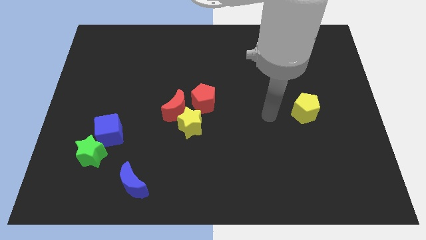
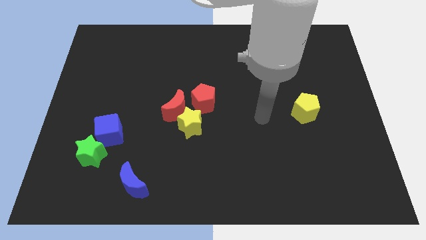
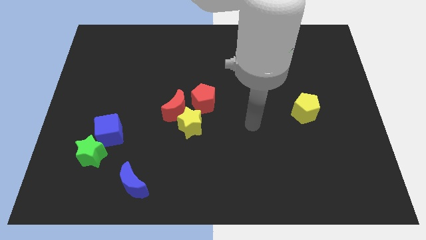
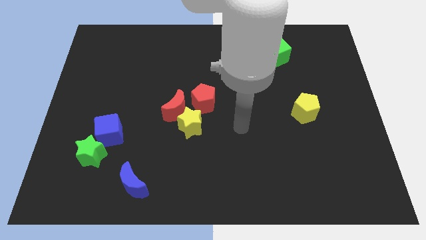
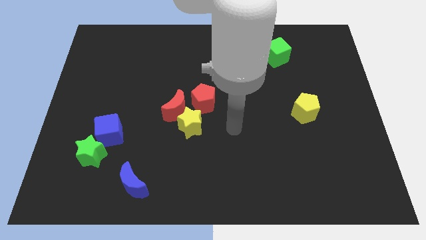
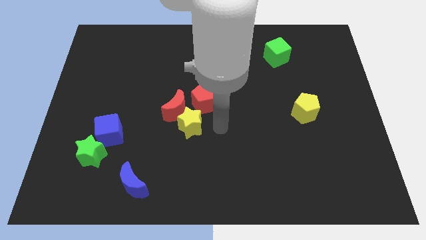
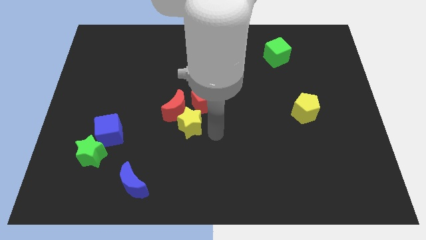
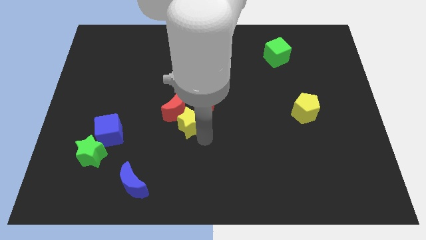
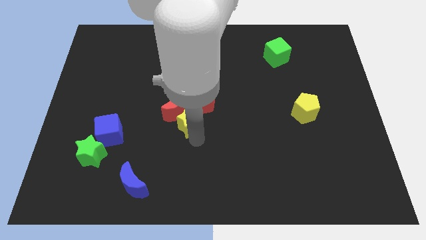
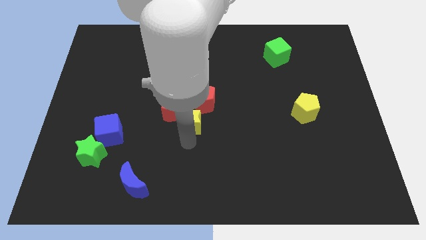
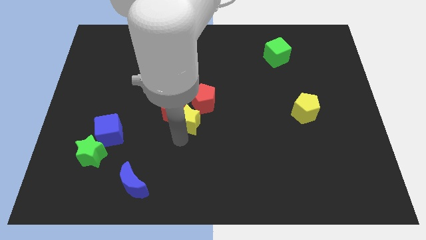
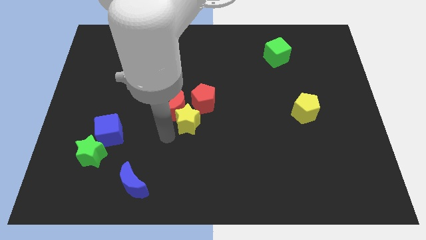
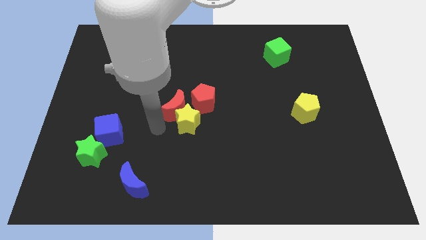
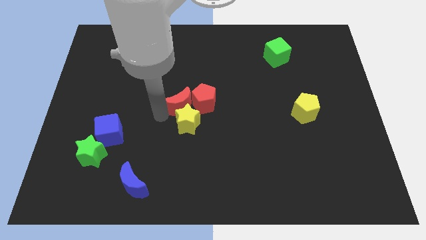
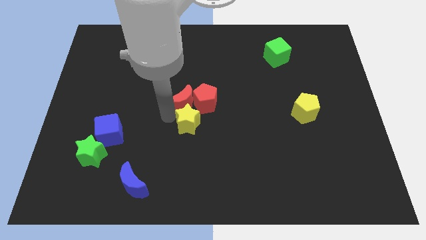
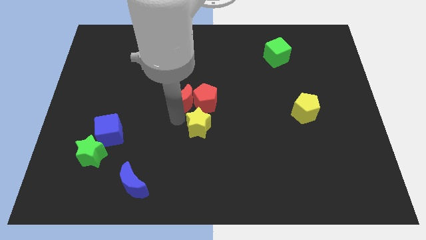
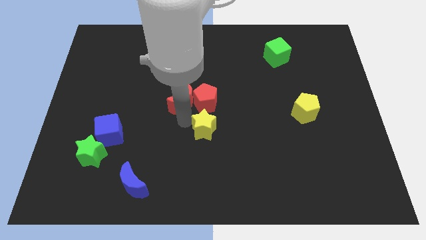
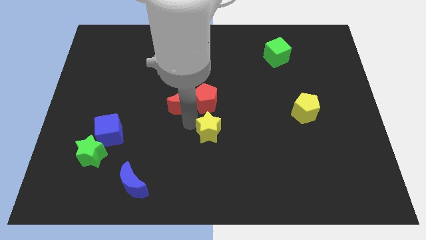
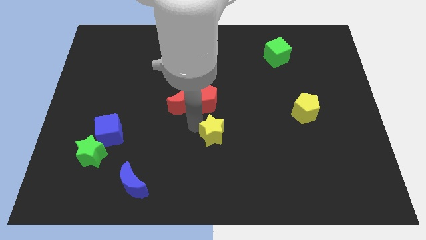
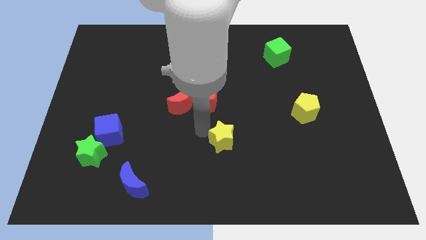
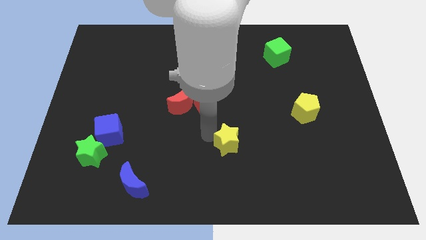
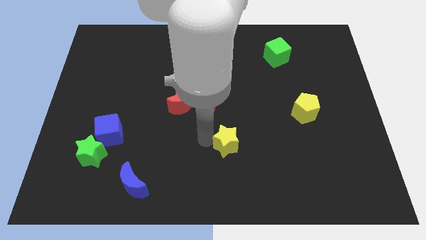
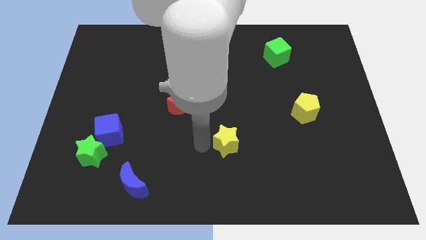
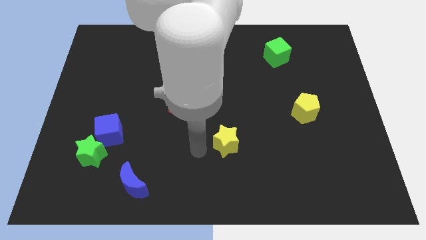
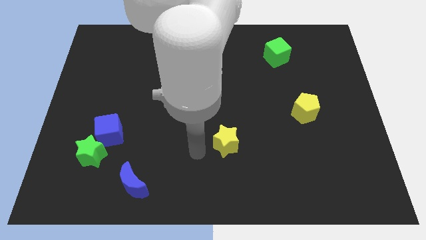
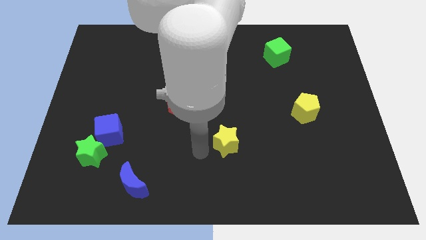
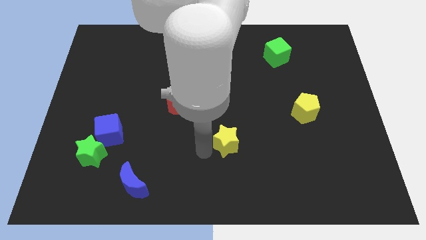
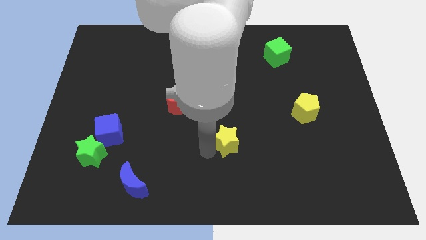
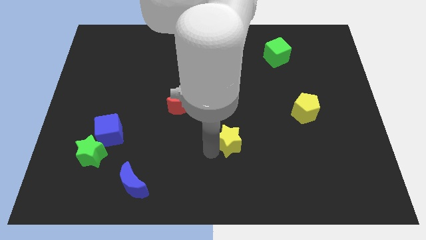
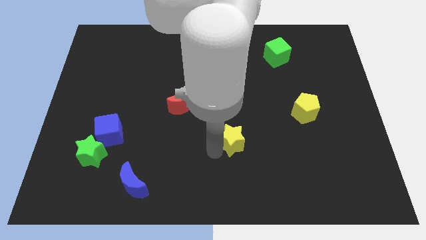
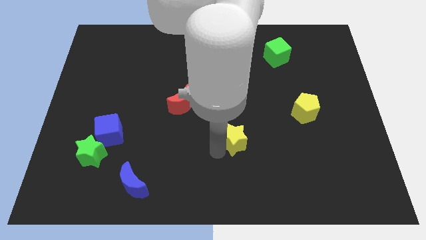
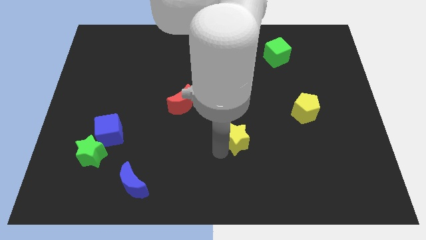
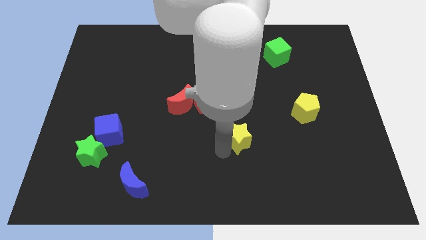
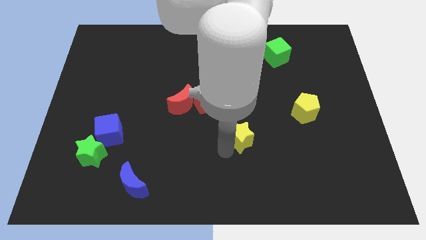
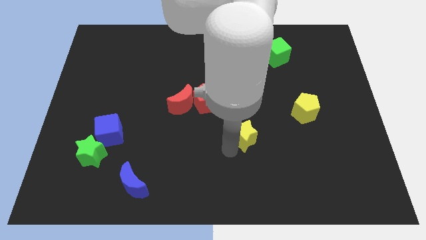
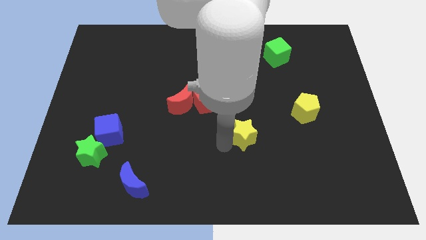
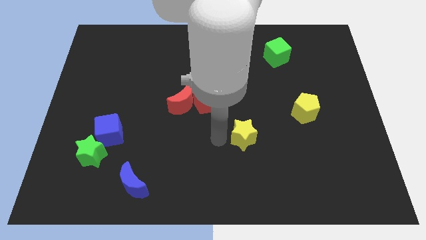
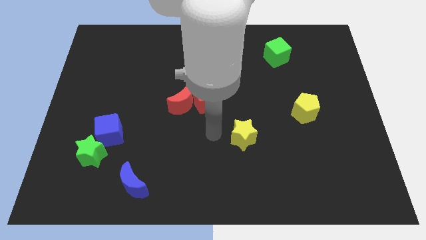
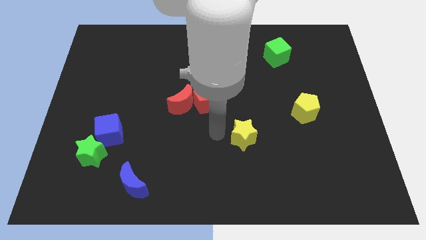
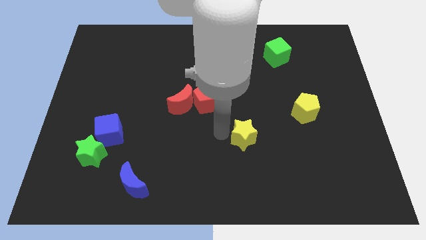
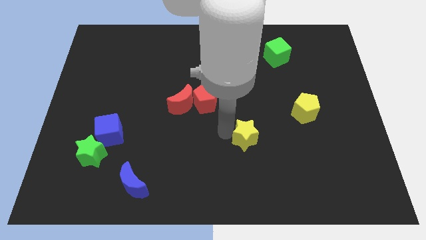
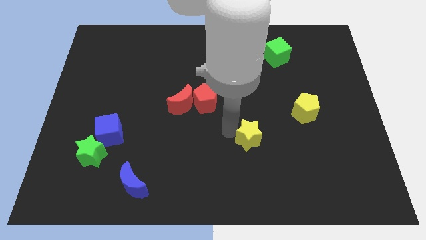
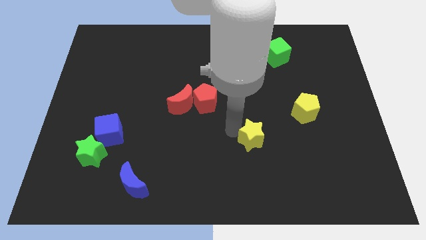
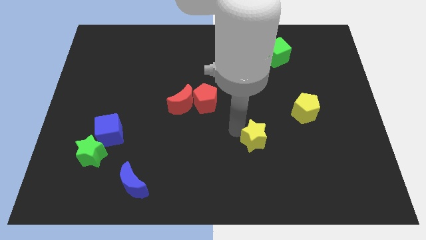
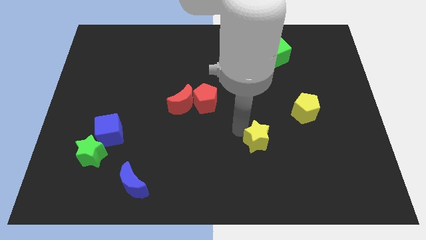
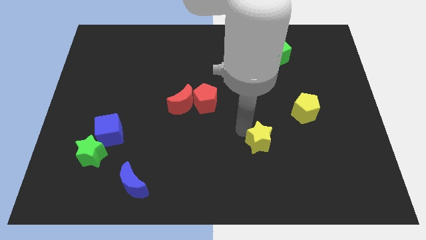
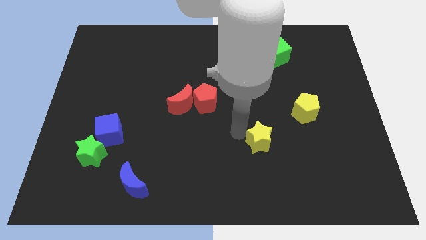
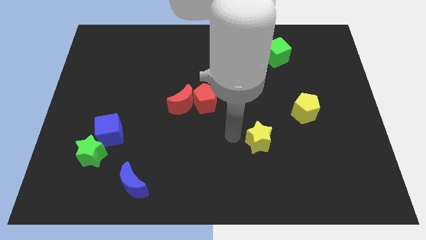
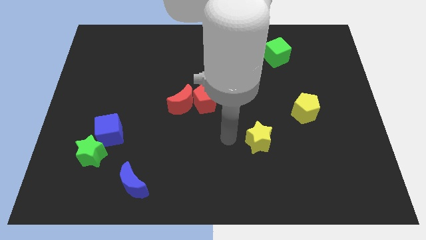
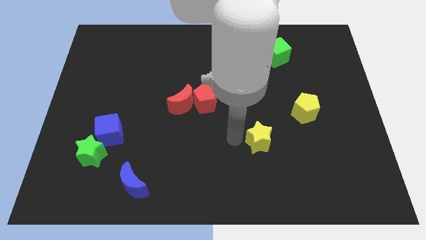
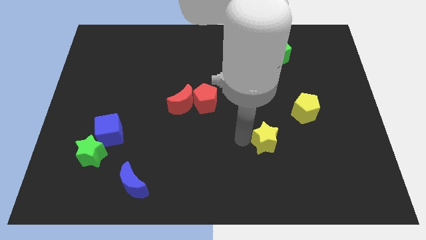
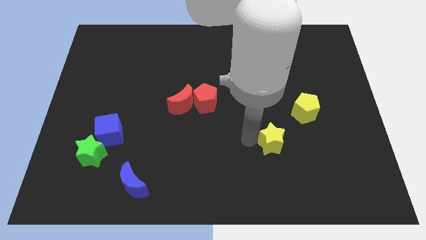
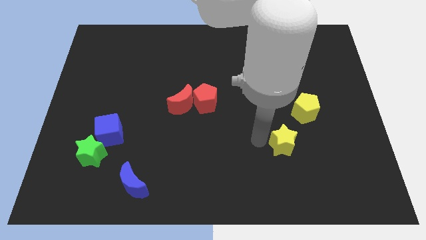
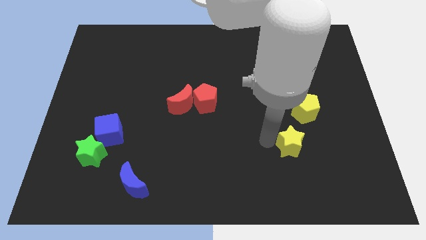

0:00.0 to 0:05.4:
move the yellow star to the bottom side of the yellow pentagon

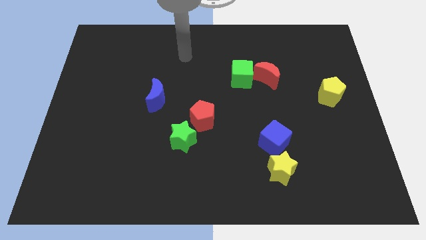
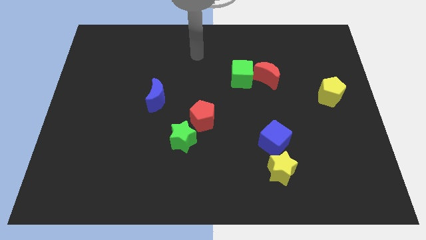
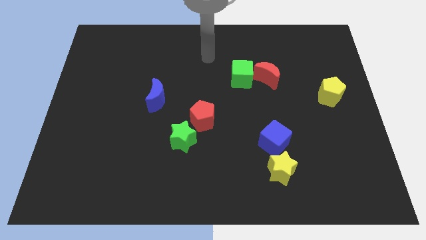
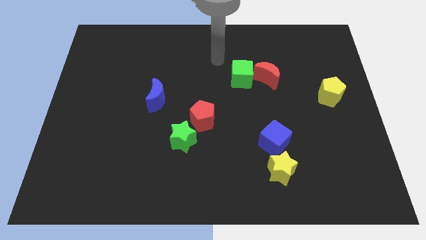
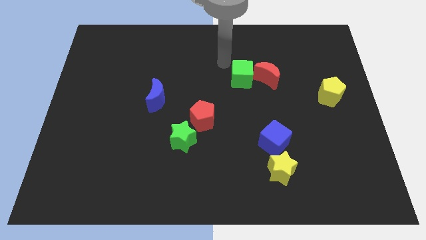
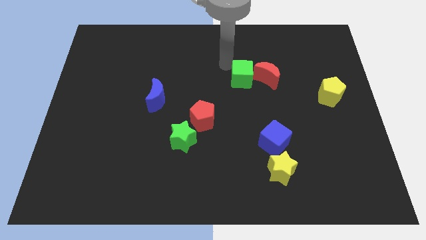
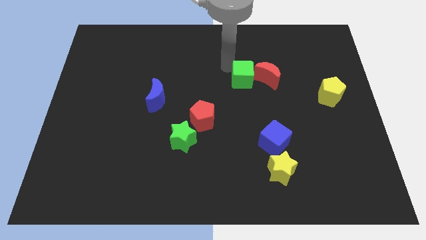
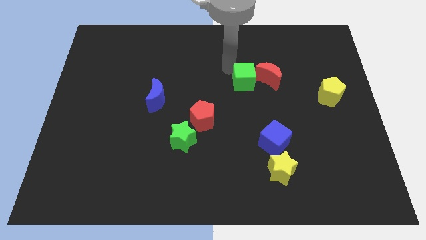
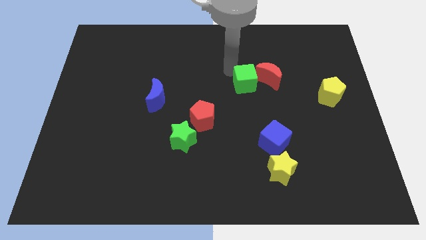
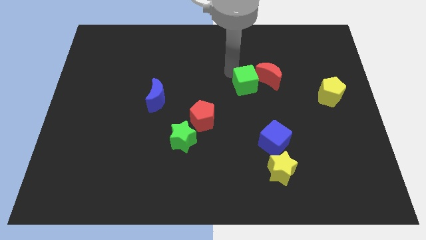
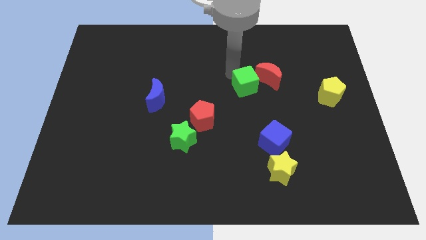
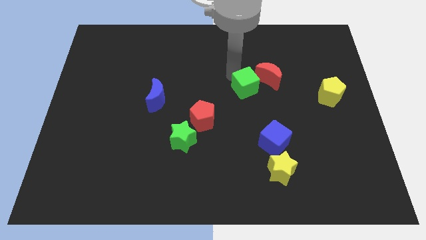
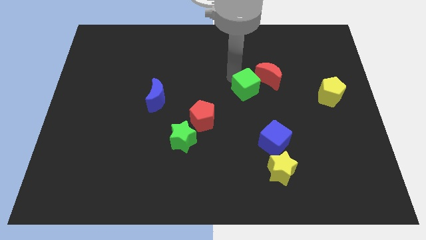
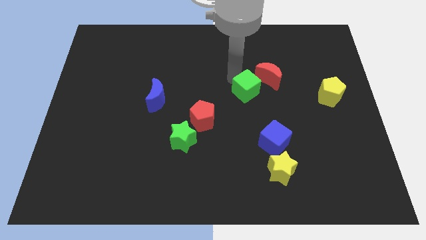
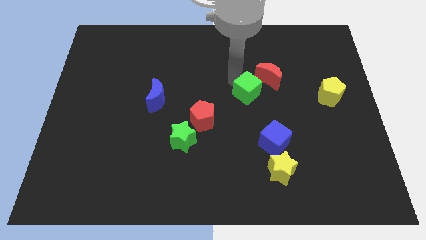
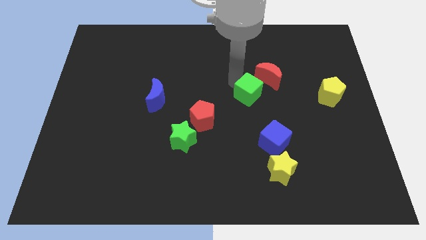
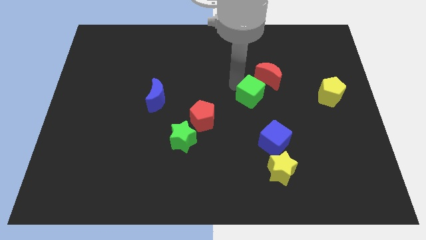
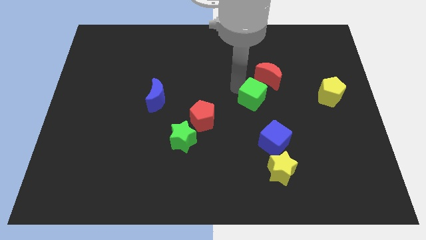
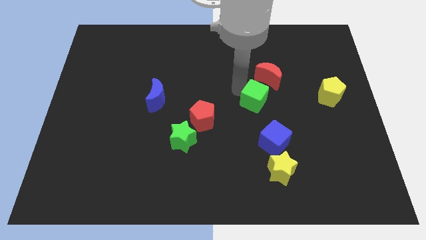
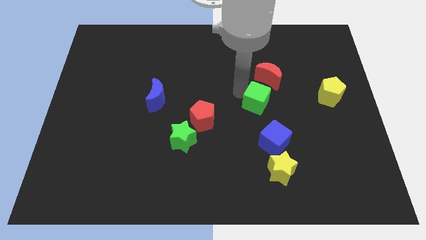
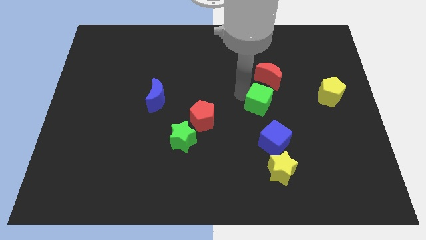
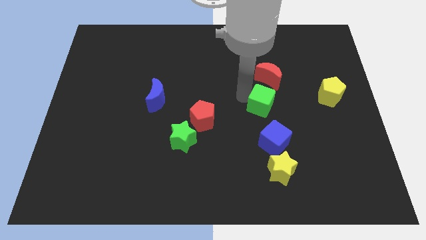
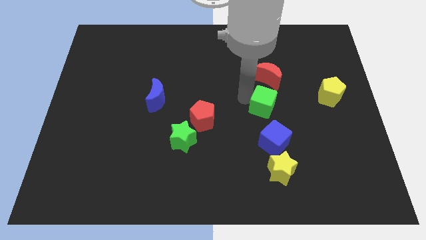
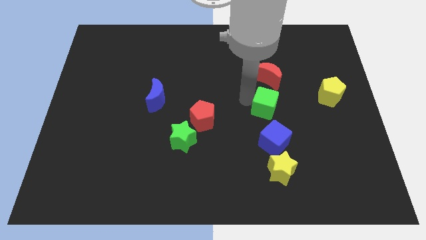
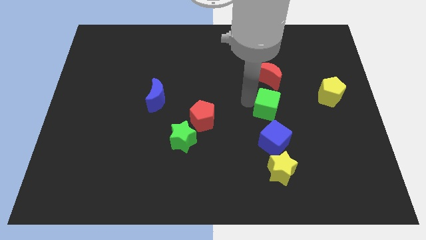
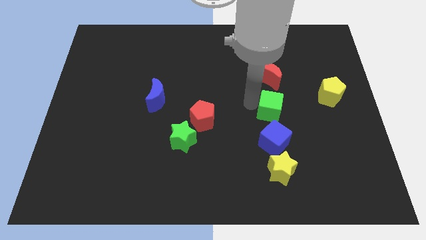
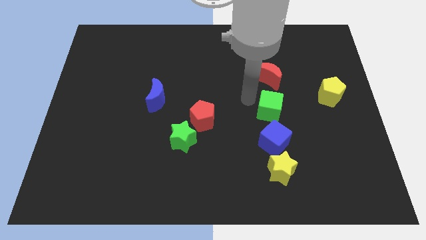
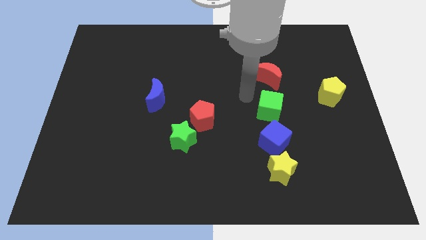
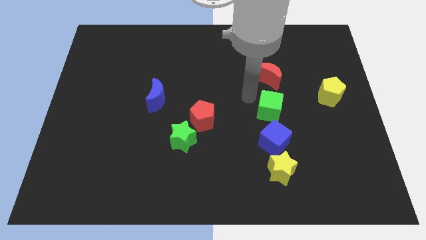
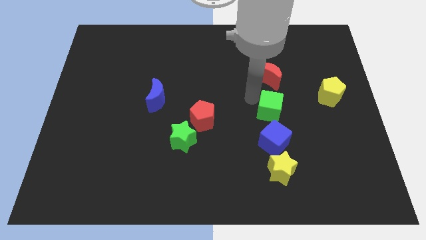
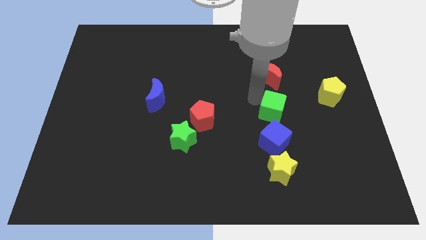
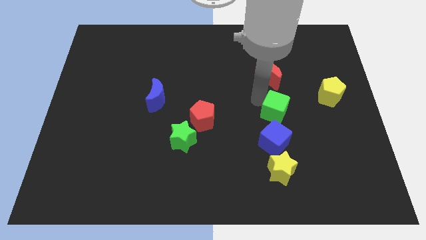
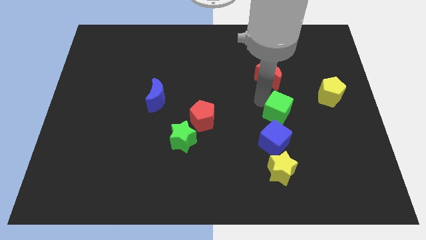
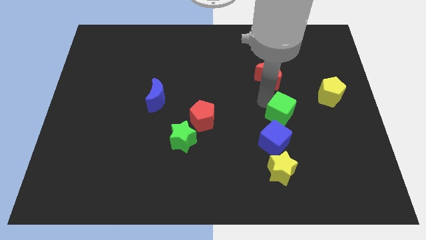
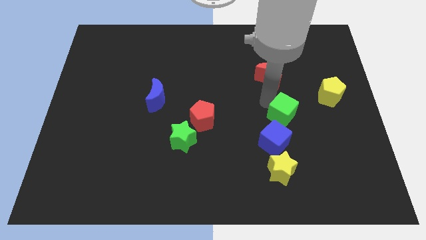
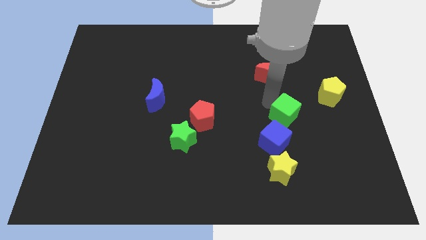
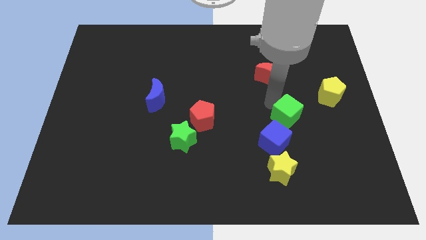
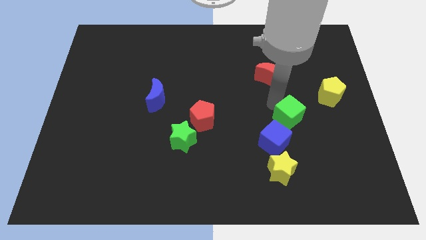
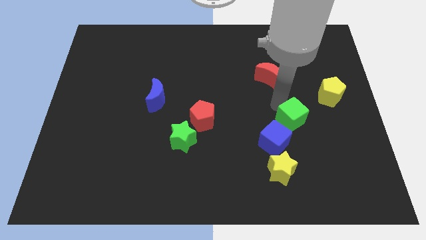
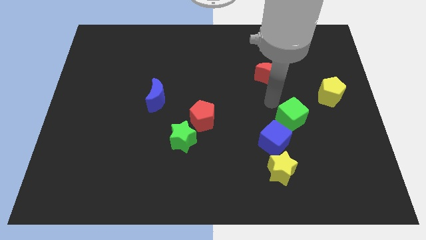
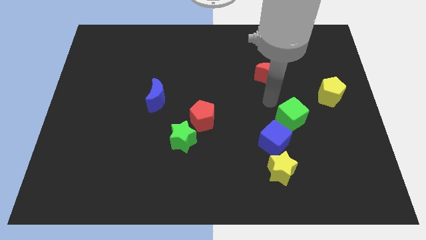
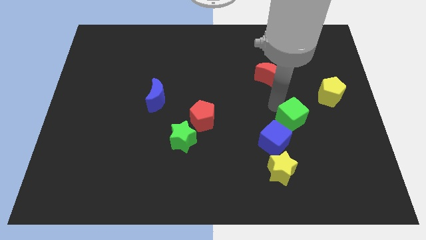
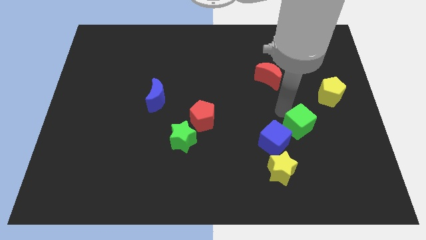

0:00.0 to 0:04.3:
put the green cube to the right side of the blue cube
